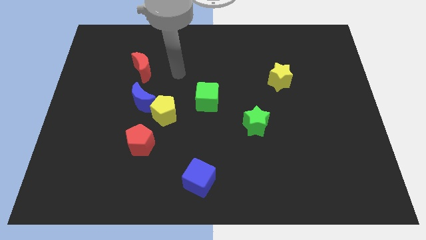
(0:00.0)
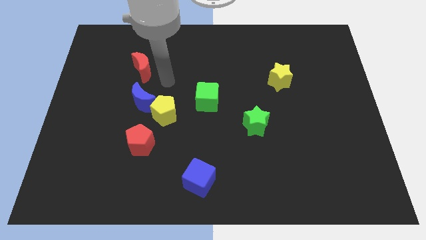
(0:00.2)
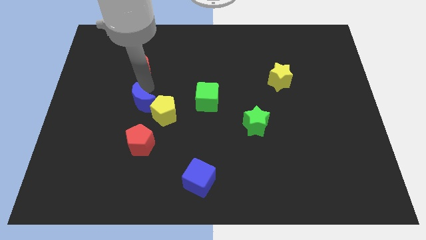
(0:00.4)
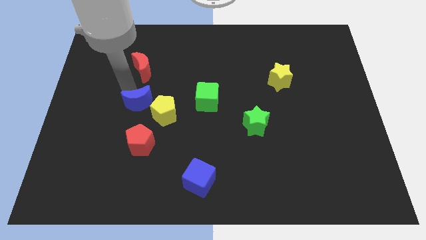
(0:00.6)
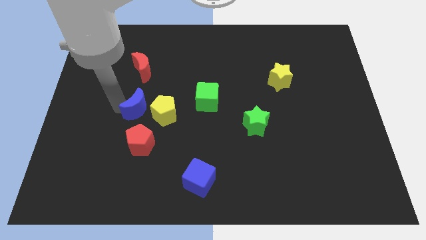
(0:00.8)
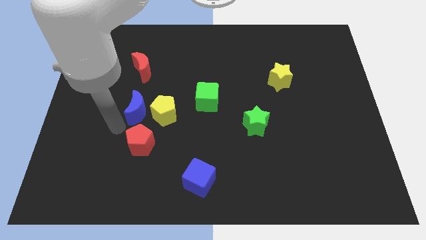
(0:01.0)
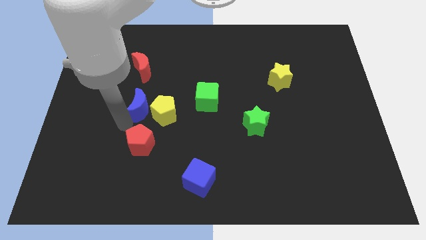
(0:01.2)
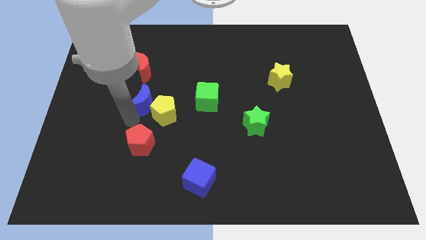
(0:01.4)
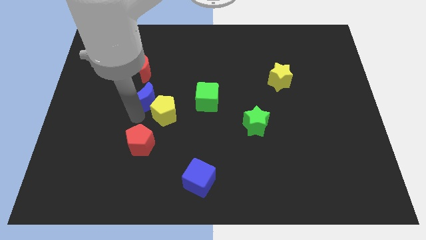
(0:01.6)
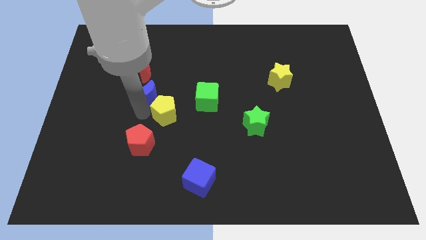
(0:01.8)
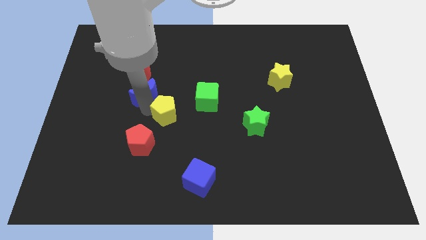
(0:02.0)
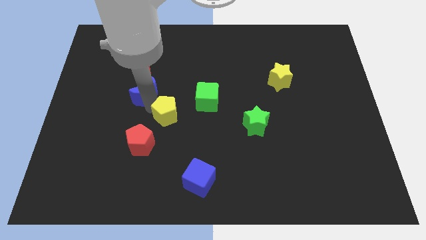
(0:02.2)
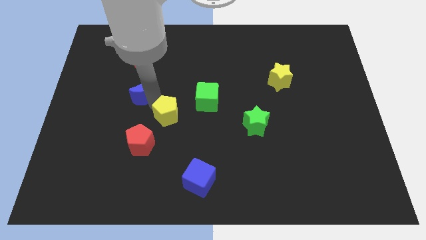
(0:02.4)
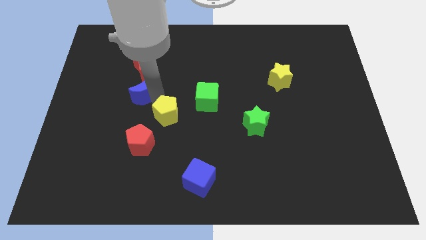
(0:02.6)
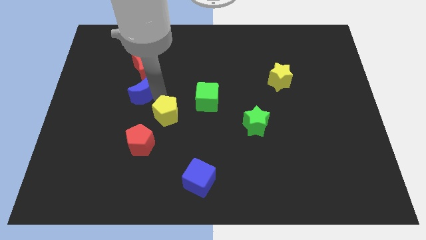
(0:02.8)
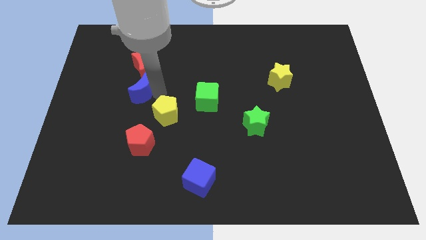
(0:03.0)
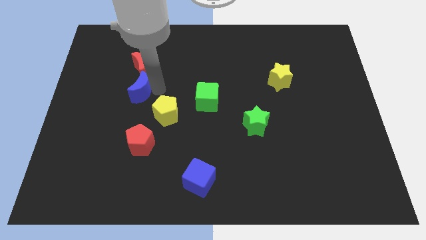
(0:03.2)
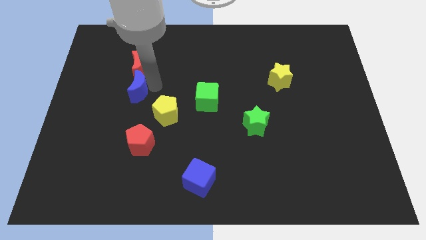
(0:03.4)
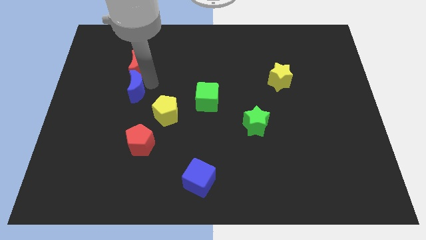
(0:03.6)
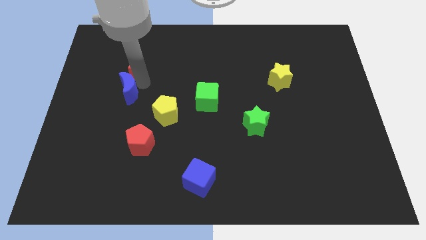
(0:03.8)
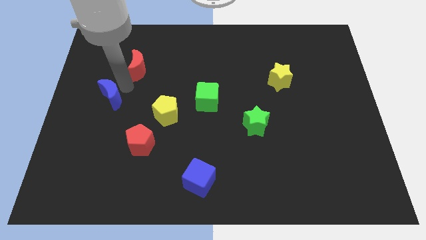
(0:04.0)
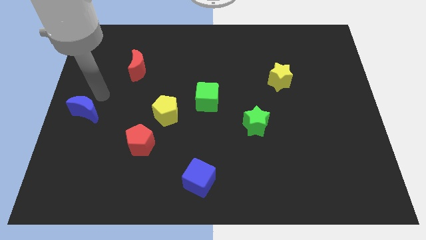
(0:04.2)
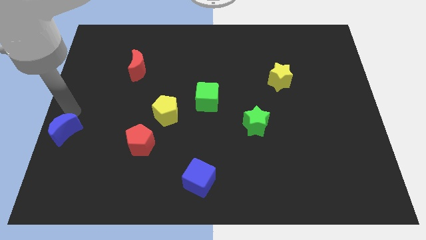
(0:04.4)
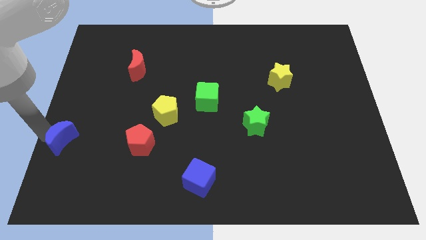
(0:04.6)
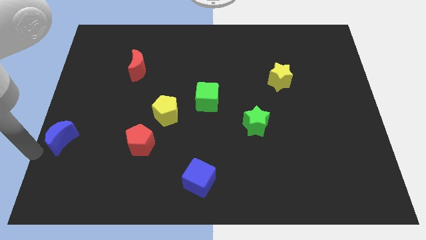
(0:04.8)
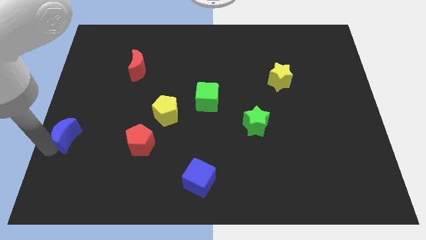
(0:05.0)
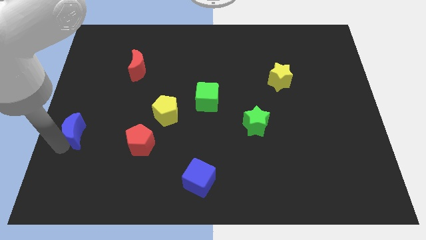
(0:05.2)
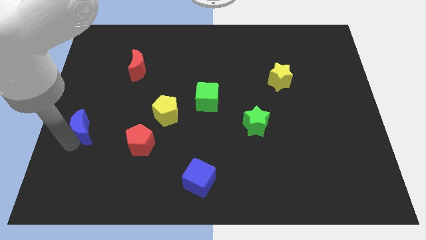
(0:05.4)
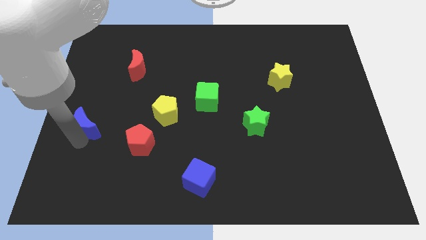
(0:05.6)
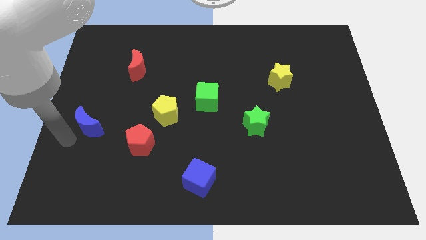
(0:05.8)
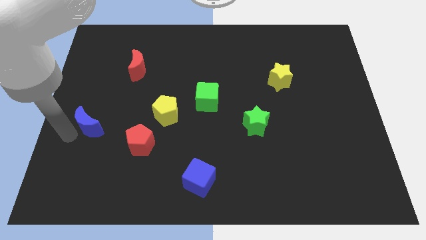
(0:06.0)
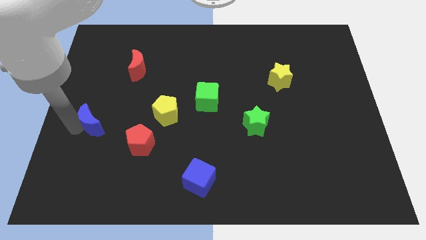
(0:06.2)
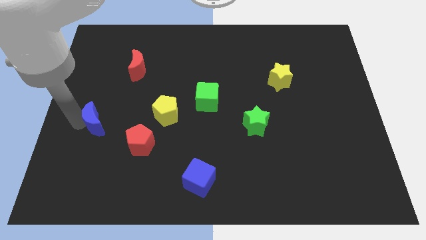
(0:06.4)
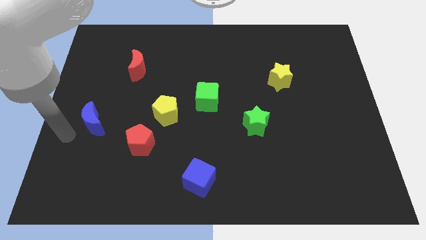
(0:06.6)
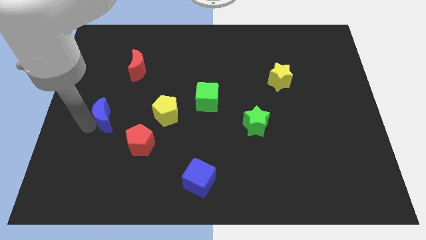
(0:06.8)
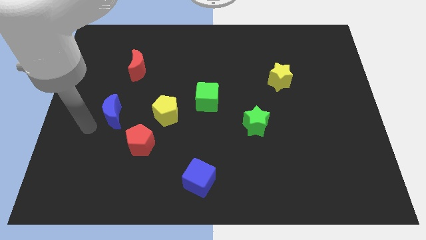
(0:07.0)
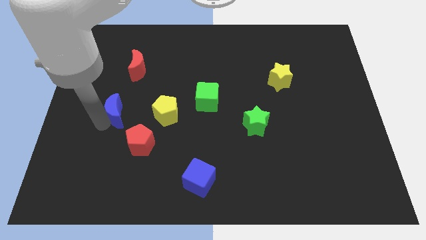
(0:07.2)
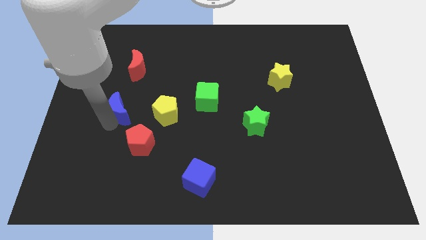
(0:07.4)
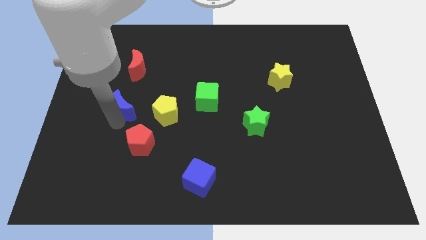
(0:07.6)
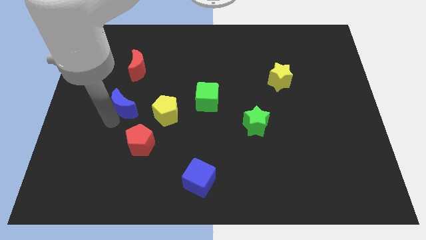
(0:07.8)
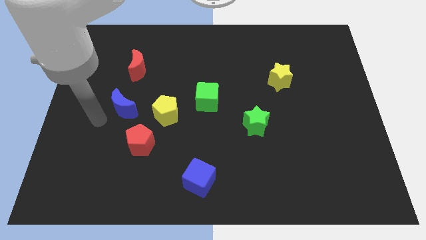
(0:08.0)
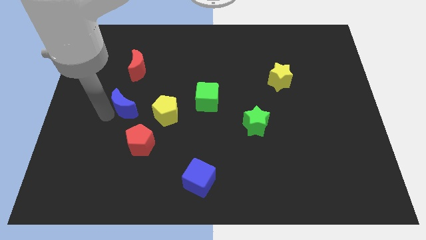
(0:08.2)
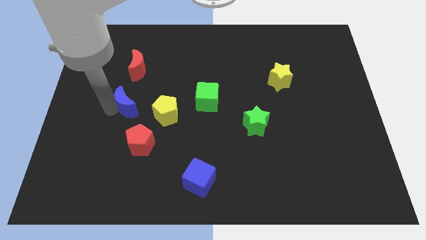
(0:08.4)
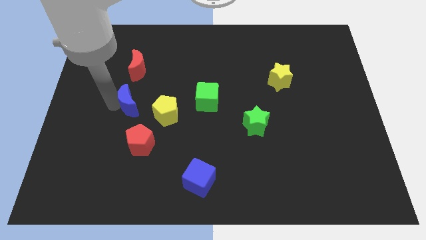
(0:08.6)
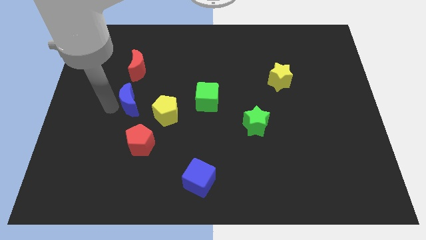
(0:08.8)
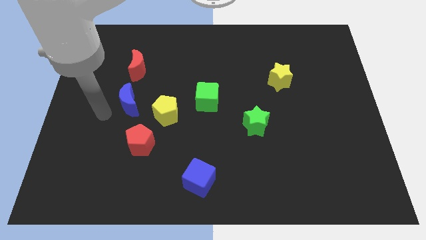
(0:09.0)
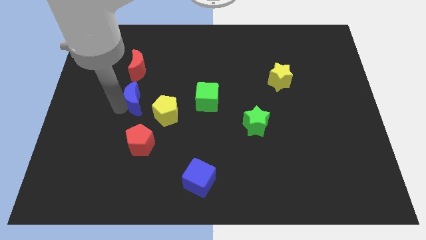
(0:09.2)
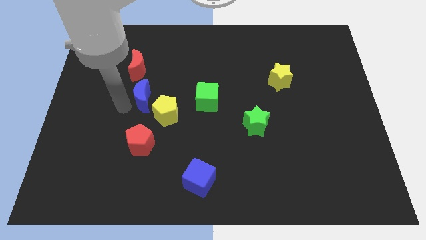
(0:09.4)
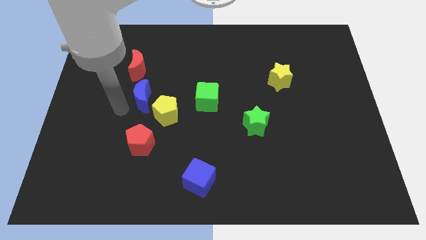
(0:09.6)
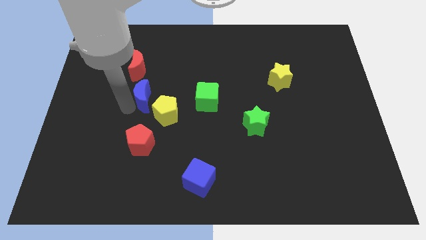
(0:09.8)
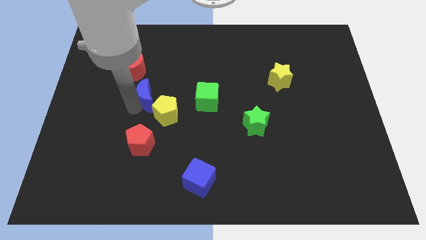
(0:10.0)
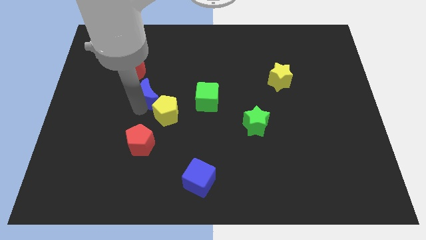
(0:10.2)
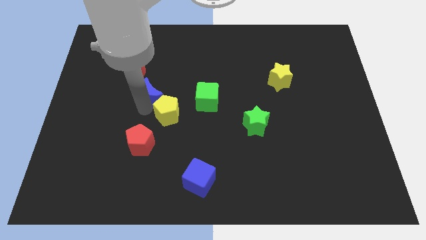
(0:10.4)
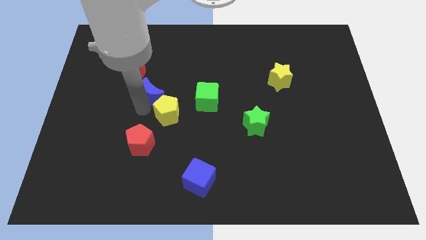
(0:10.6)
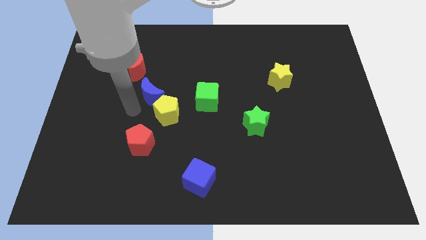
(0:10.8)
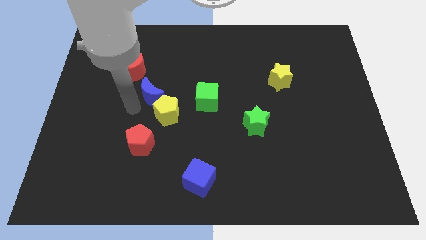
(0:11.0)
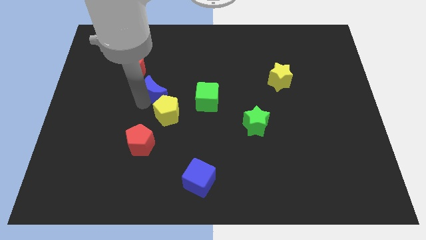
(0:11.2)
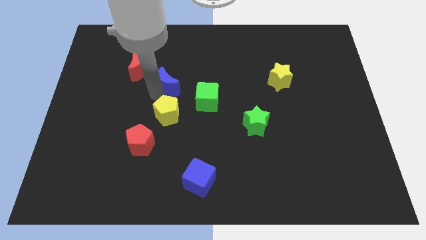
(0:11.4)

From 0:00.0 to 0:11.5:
move the blue moon slightly diagonally upwards and right

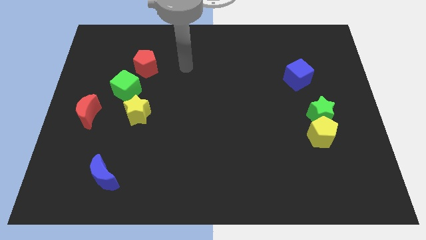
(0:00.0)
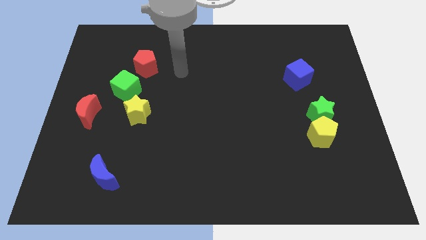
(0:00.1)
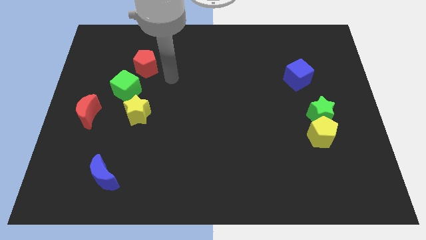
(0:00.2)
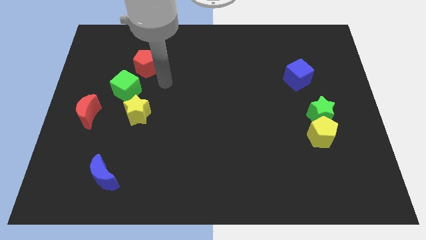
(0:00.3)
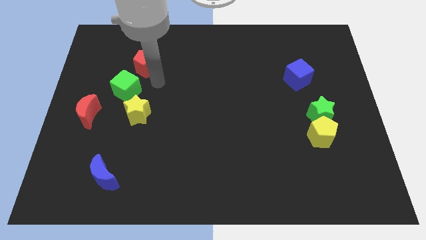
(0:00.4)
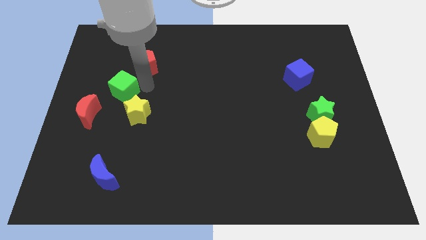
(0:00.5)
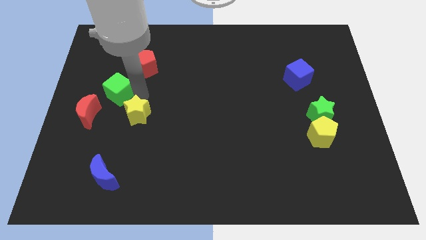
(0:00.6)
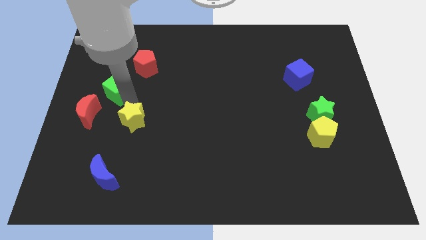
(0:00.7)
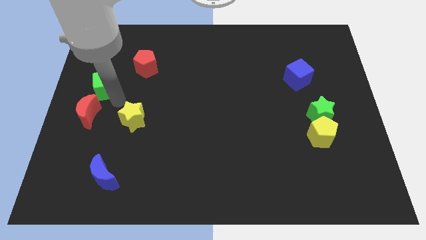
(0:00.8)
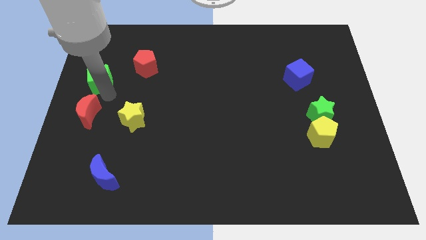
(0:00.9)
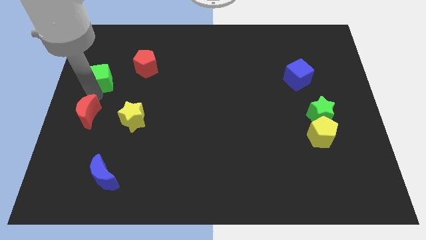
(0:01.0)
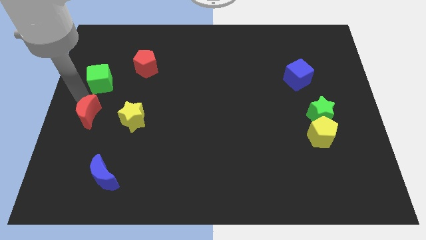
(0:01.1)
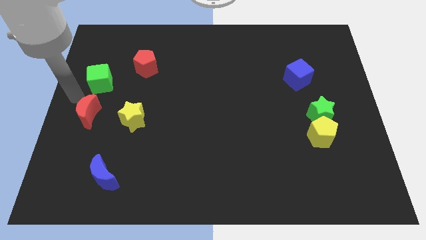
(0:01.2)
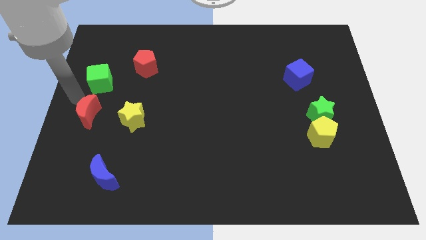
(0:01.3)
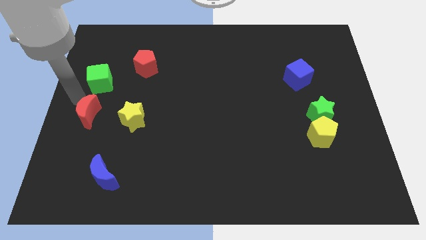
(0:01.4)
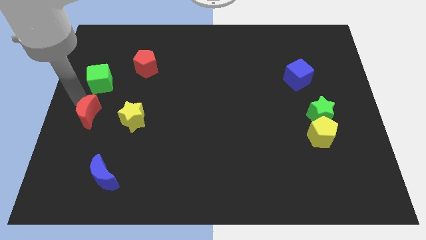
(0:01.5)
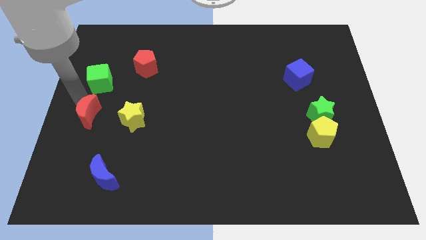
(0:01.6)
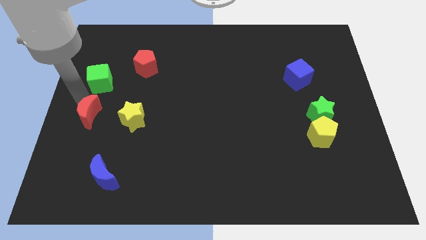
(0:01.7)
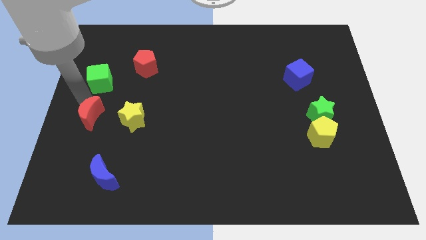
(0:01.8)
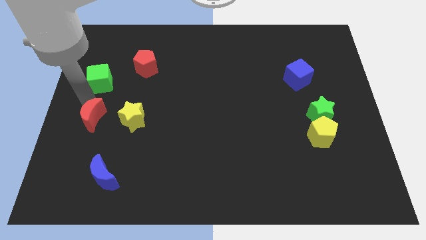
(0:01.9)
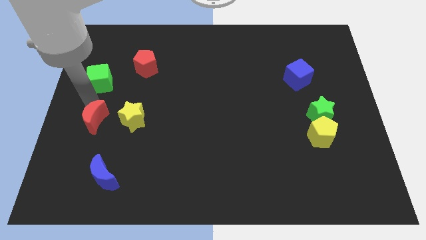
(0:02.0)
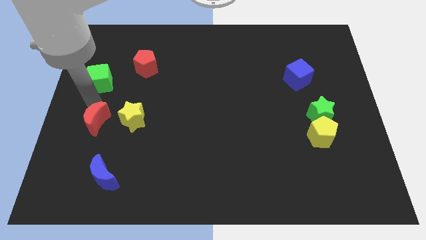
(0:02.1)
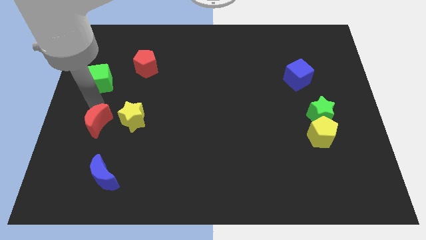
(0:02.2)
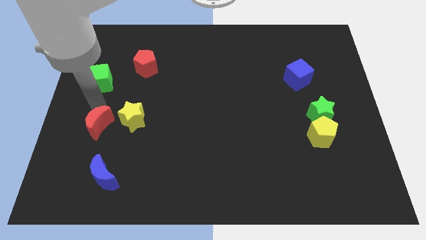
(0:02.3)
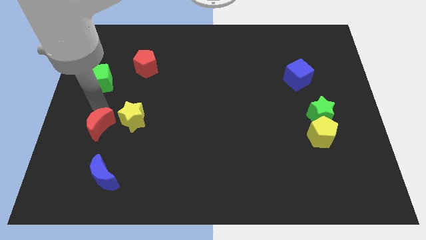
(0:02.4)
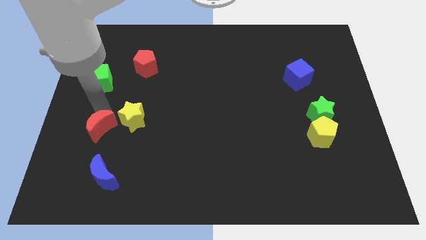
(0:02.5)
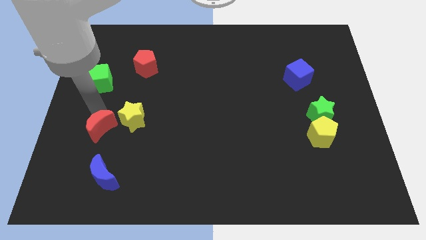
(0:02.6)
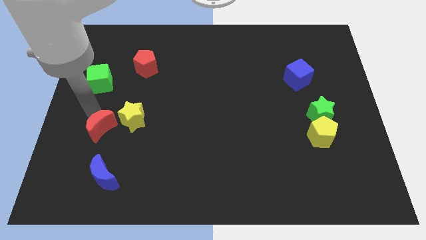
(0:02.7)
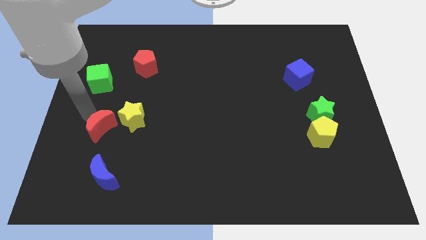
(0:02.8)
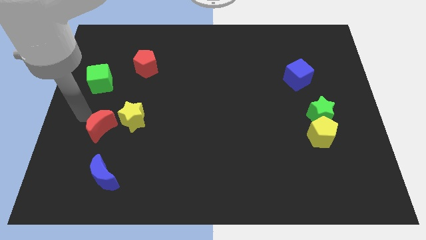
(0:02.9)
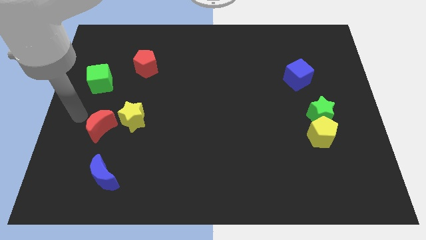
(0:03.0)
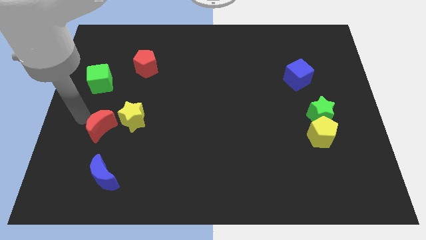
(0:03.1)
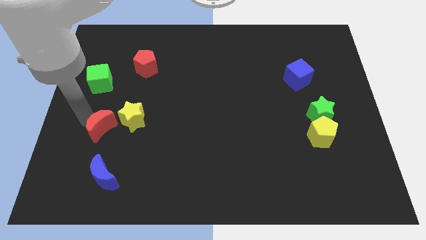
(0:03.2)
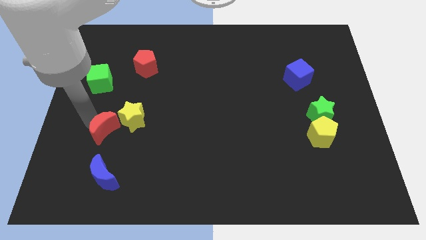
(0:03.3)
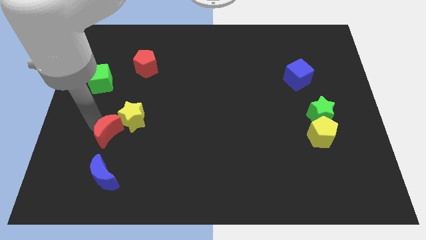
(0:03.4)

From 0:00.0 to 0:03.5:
push the red moon down and right a little bit
